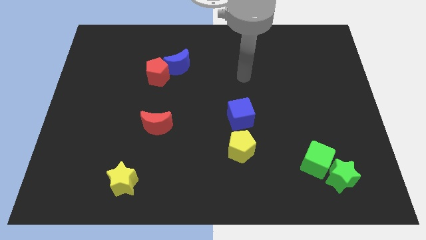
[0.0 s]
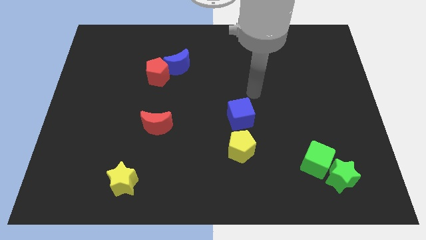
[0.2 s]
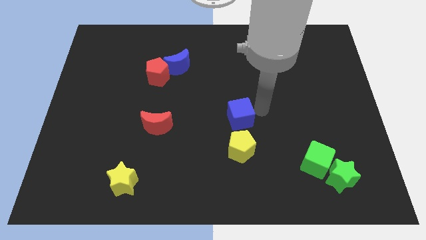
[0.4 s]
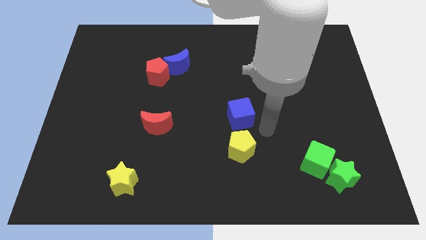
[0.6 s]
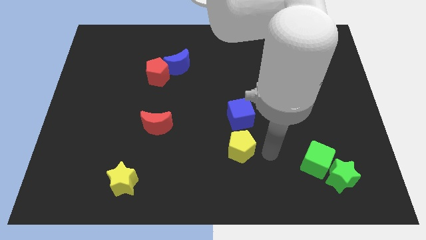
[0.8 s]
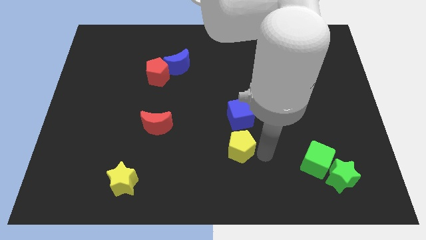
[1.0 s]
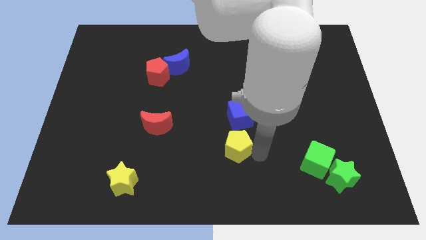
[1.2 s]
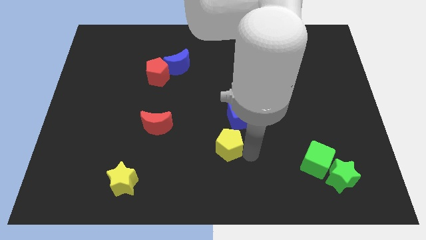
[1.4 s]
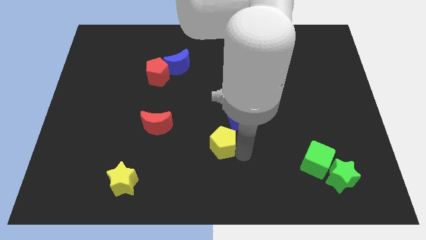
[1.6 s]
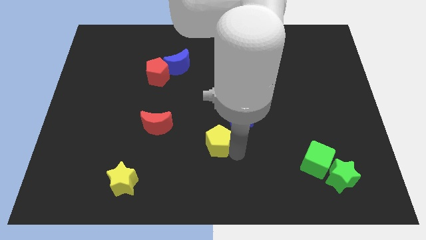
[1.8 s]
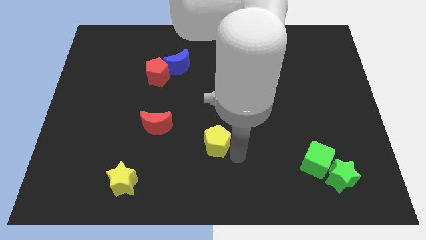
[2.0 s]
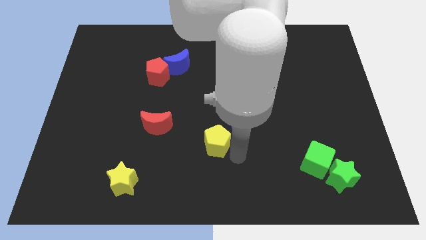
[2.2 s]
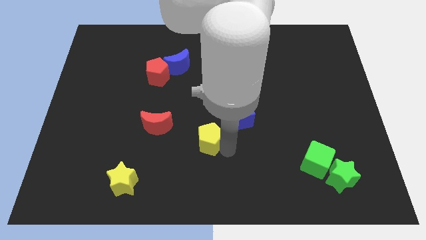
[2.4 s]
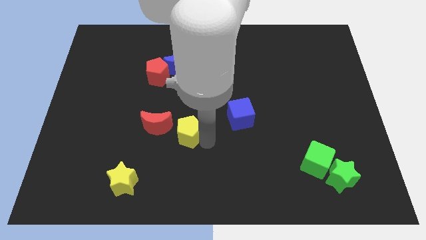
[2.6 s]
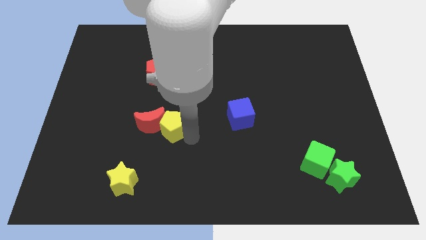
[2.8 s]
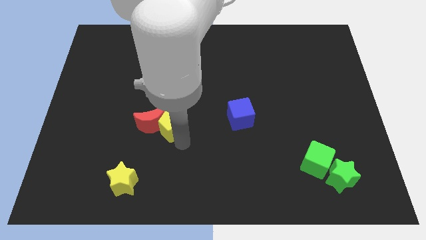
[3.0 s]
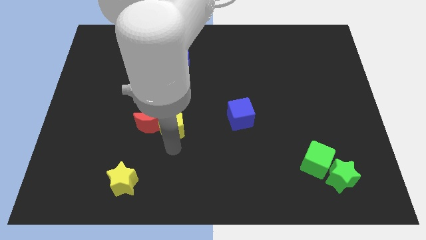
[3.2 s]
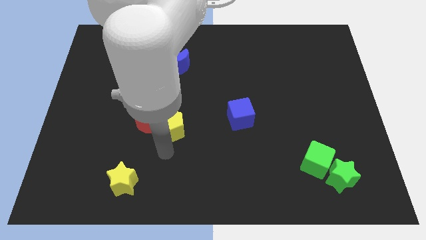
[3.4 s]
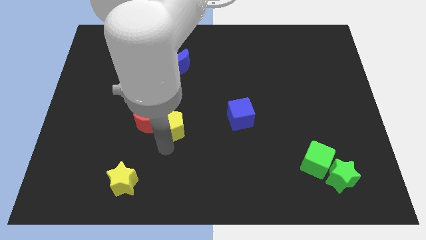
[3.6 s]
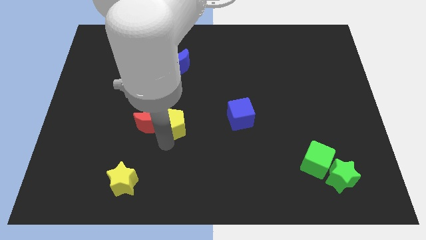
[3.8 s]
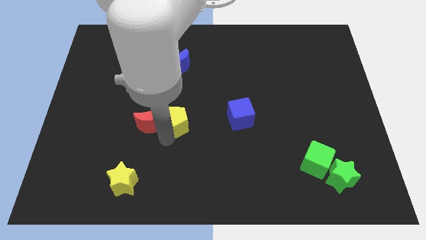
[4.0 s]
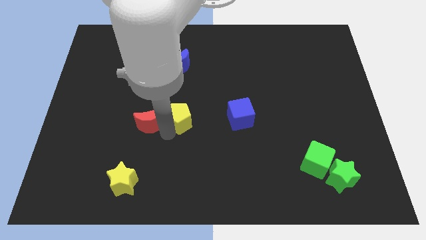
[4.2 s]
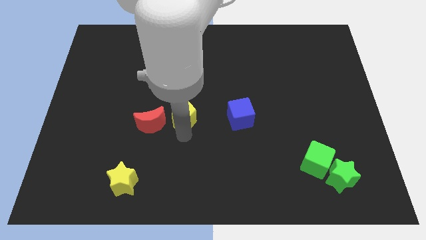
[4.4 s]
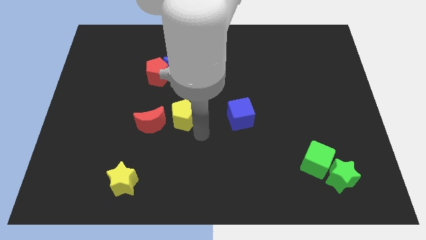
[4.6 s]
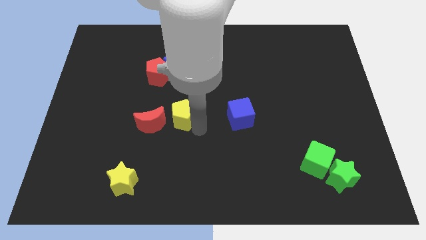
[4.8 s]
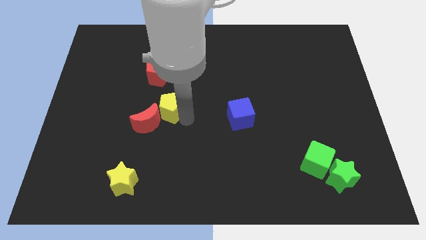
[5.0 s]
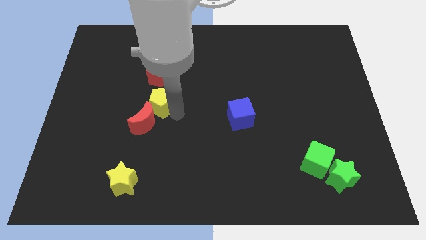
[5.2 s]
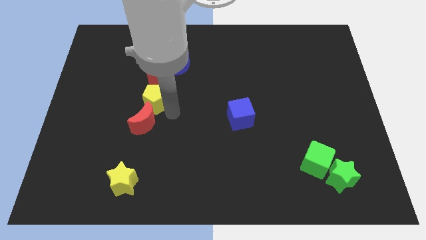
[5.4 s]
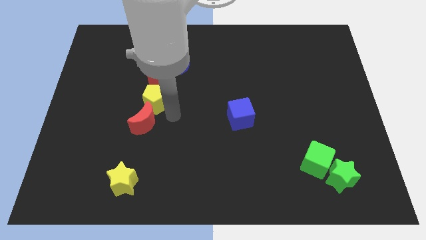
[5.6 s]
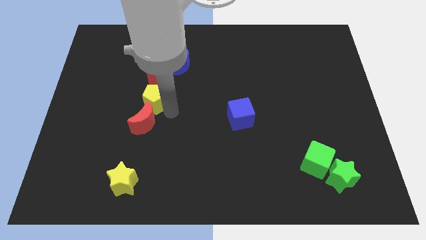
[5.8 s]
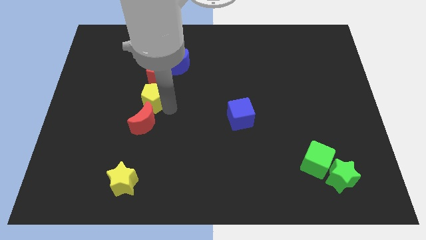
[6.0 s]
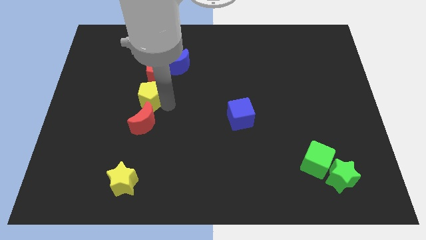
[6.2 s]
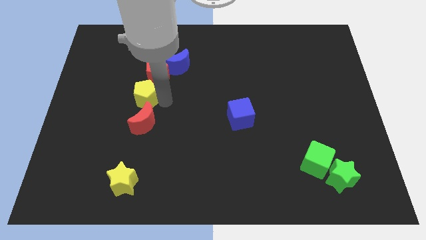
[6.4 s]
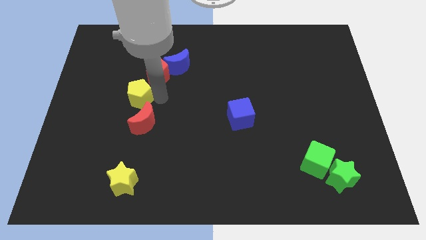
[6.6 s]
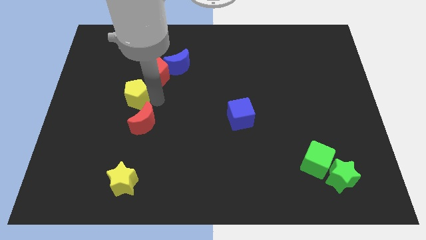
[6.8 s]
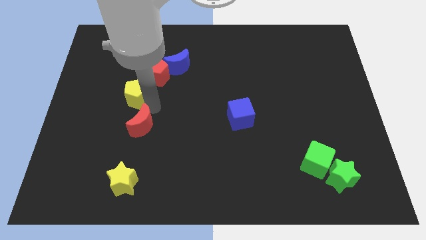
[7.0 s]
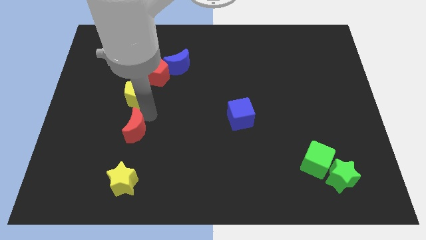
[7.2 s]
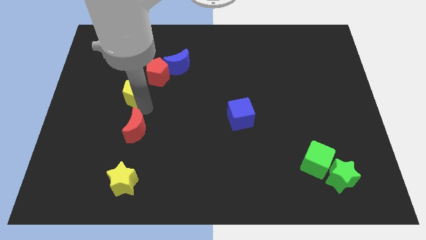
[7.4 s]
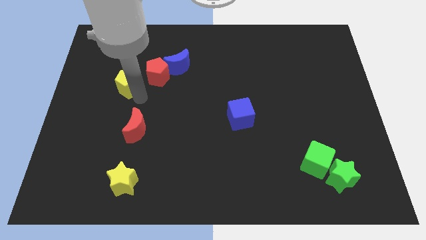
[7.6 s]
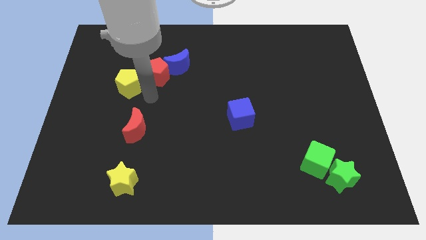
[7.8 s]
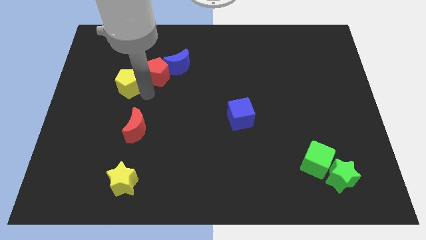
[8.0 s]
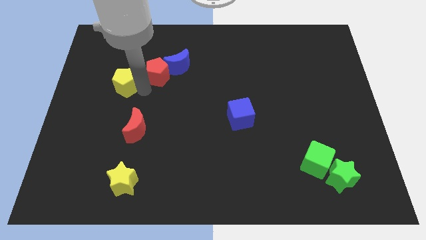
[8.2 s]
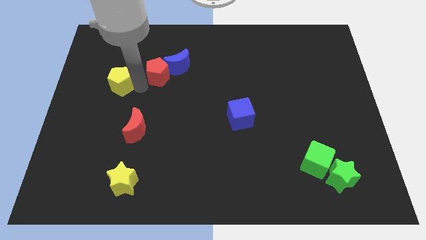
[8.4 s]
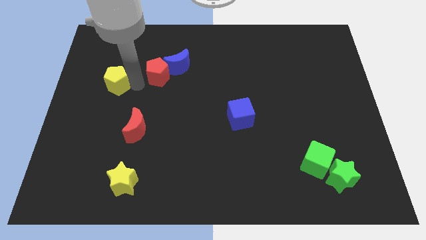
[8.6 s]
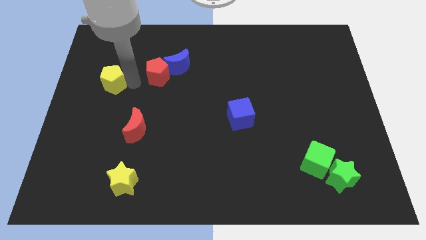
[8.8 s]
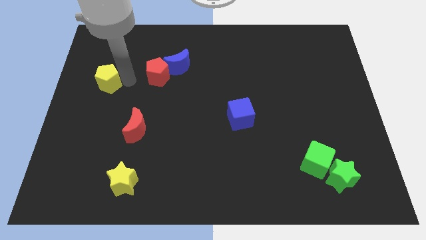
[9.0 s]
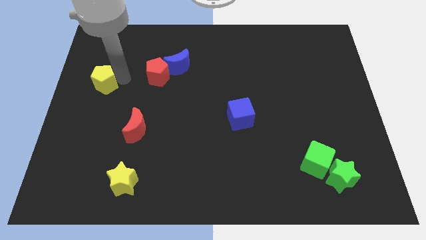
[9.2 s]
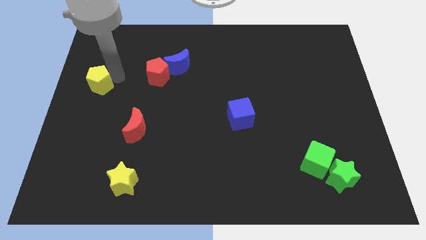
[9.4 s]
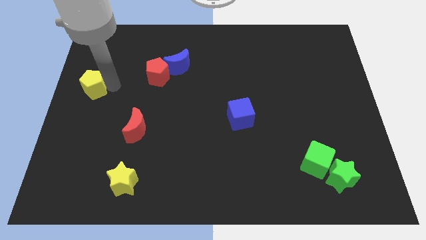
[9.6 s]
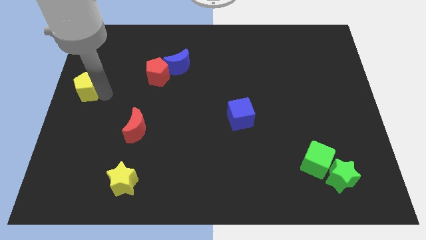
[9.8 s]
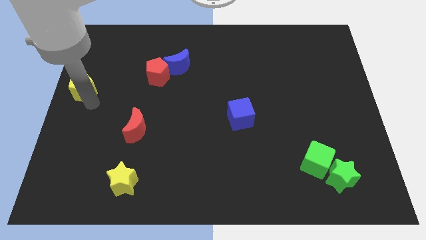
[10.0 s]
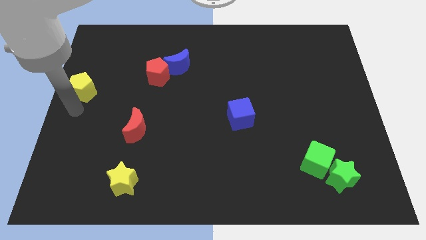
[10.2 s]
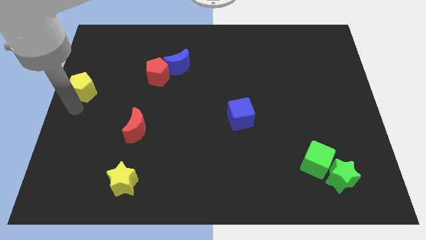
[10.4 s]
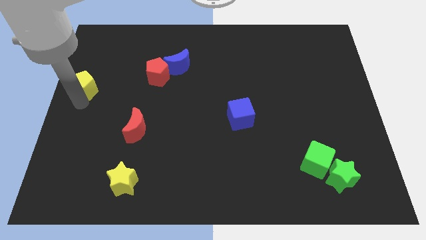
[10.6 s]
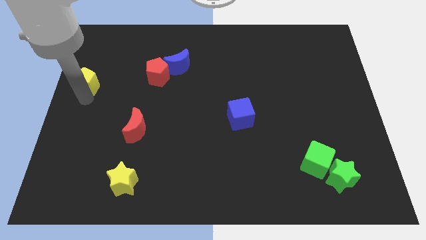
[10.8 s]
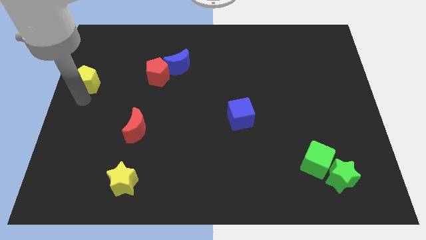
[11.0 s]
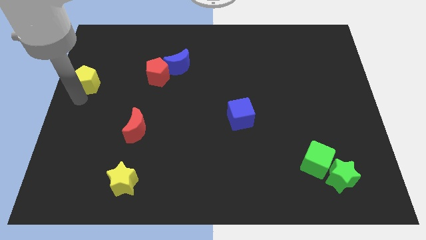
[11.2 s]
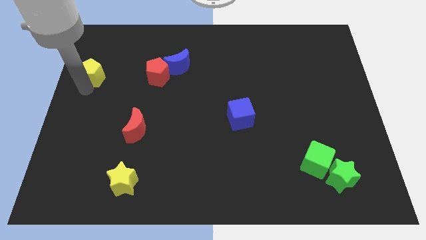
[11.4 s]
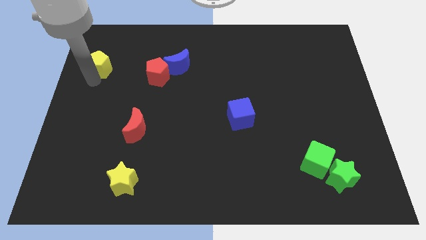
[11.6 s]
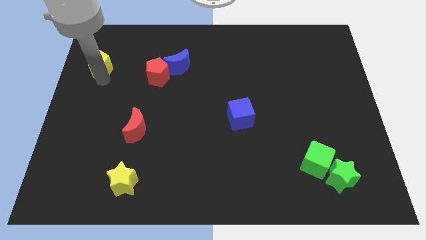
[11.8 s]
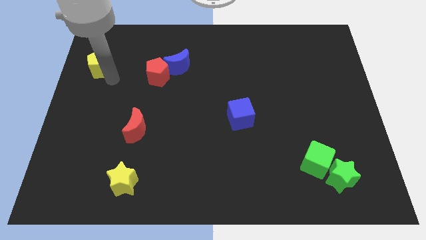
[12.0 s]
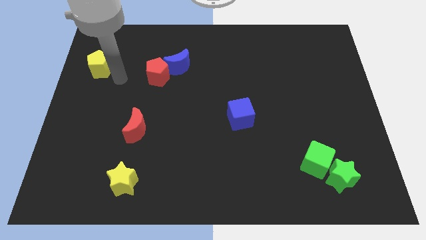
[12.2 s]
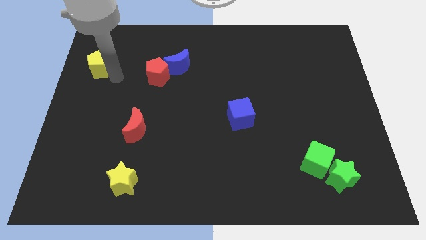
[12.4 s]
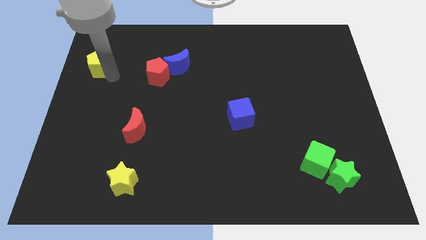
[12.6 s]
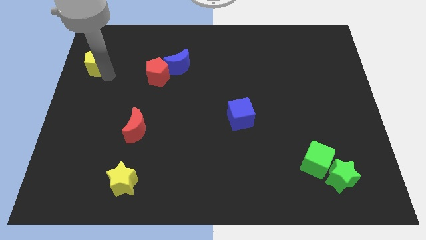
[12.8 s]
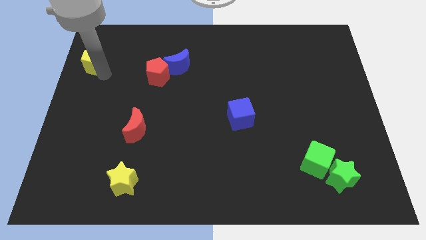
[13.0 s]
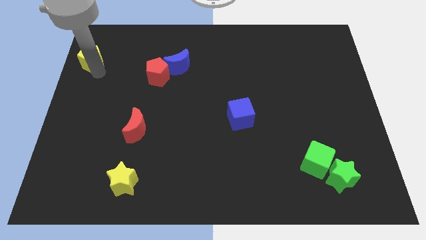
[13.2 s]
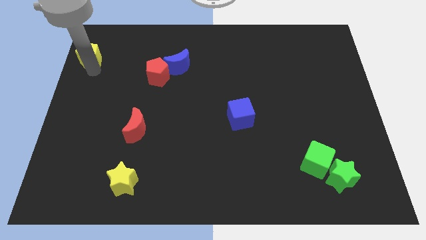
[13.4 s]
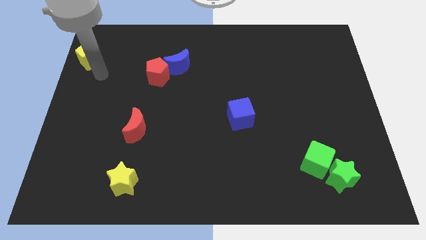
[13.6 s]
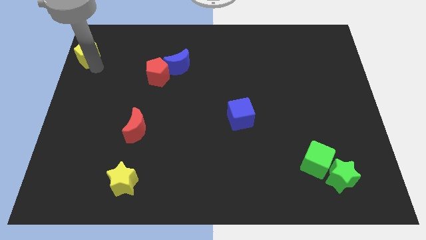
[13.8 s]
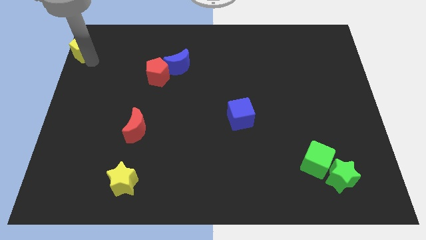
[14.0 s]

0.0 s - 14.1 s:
move the yellow pentagon to the top left corner
